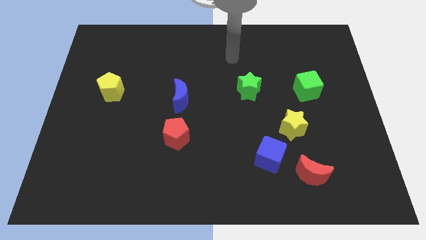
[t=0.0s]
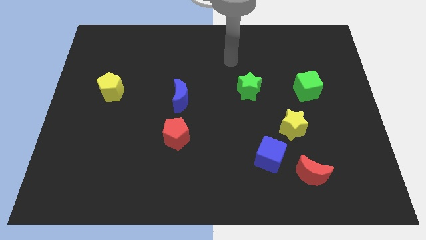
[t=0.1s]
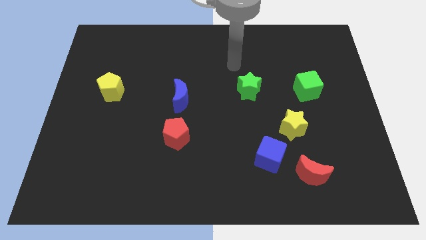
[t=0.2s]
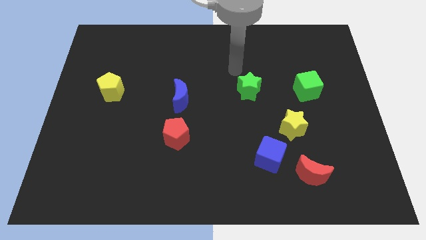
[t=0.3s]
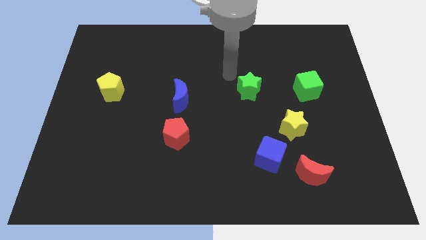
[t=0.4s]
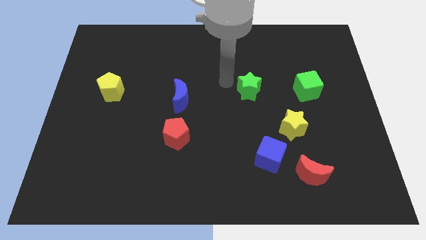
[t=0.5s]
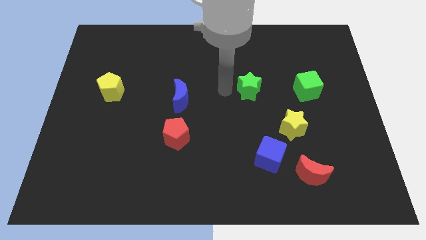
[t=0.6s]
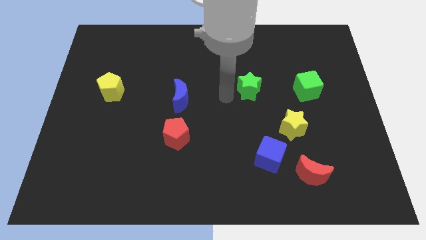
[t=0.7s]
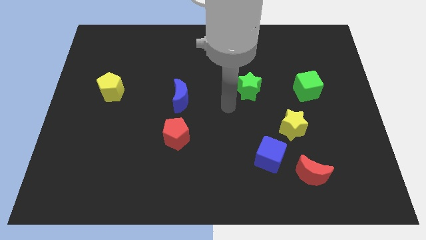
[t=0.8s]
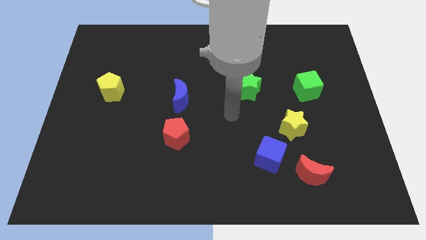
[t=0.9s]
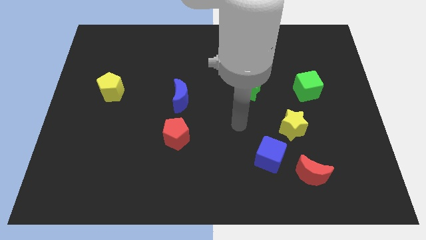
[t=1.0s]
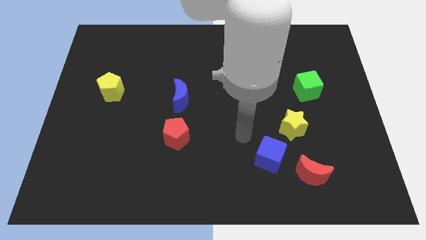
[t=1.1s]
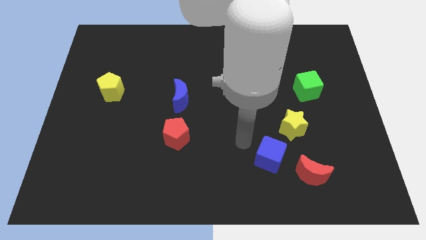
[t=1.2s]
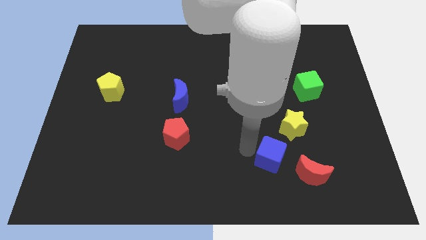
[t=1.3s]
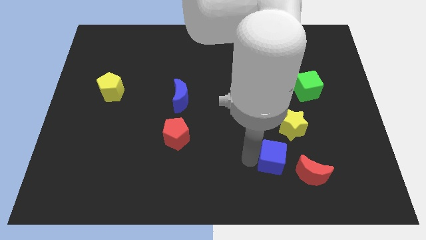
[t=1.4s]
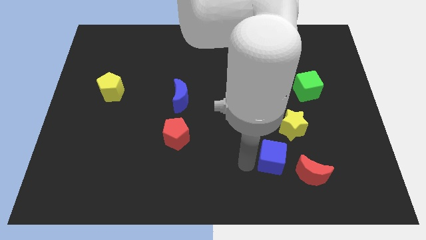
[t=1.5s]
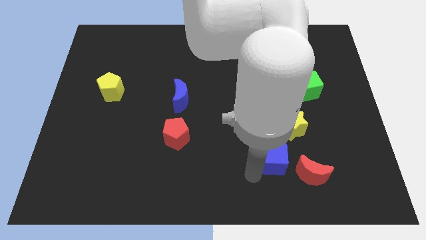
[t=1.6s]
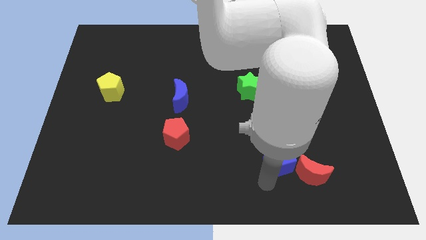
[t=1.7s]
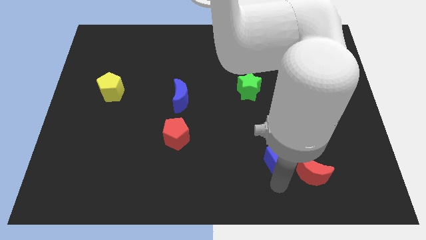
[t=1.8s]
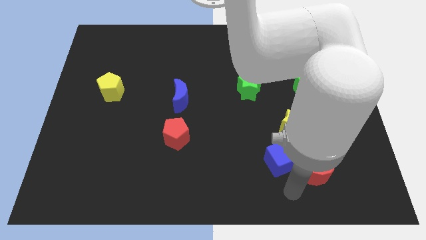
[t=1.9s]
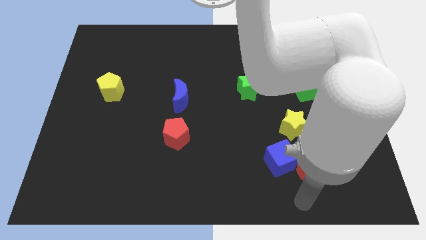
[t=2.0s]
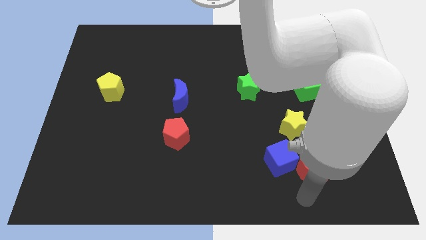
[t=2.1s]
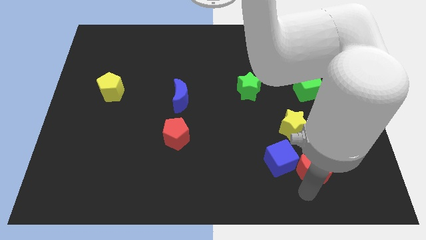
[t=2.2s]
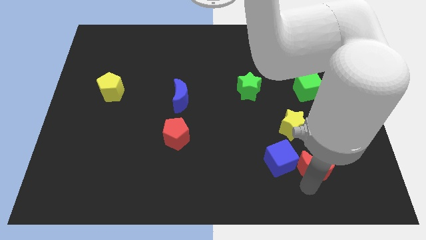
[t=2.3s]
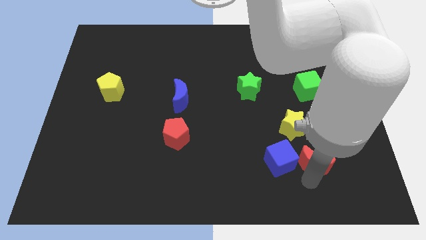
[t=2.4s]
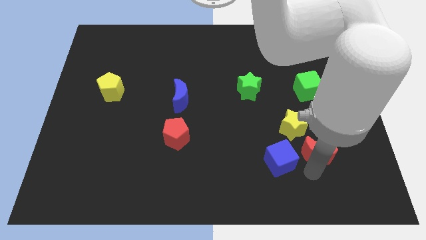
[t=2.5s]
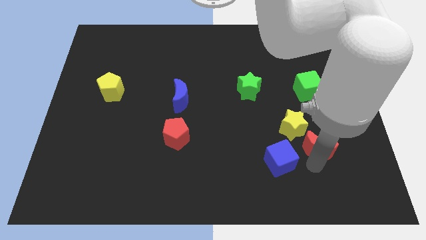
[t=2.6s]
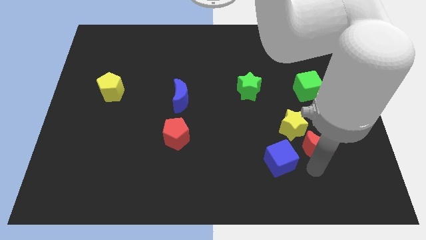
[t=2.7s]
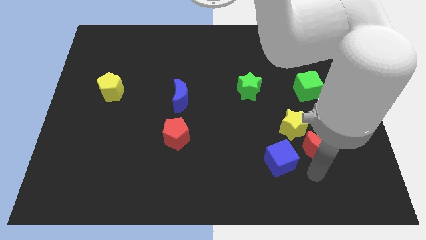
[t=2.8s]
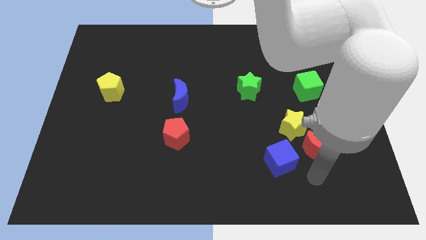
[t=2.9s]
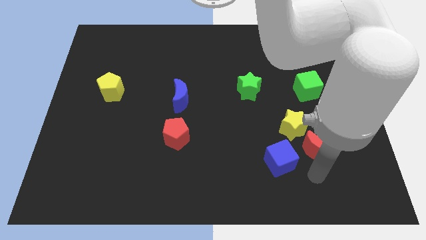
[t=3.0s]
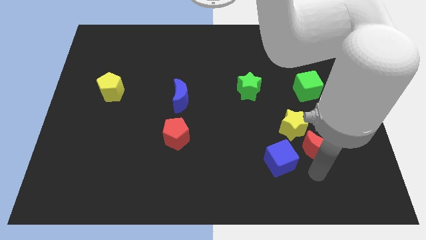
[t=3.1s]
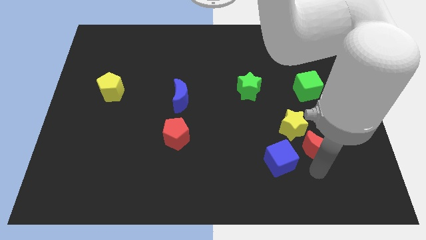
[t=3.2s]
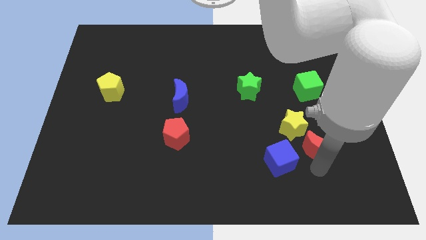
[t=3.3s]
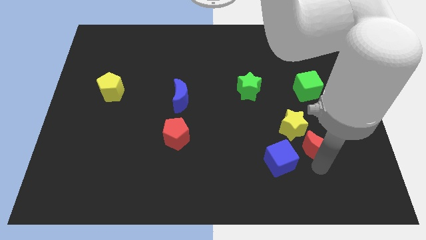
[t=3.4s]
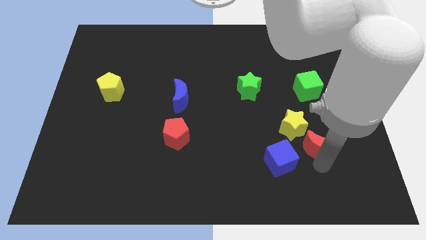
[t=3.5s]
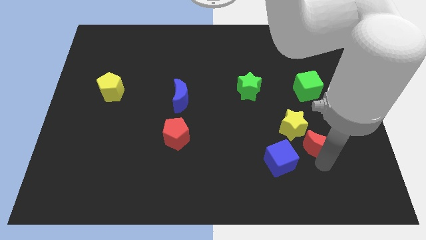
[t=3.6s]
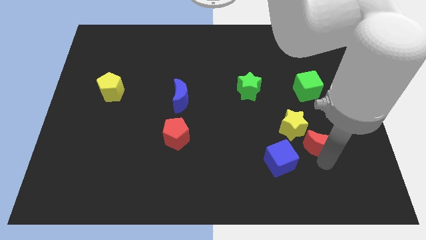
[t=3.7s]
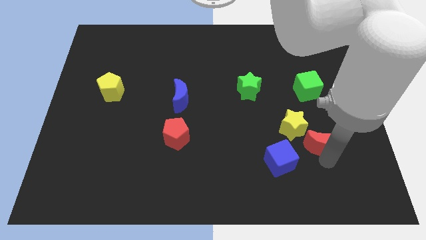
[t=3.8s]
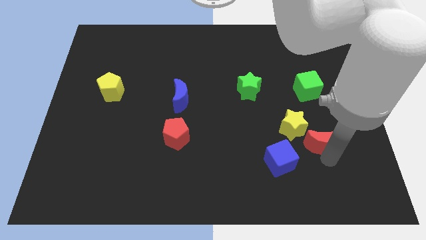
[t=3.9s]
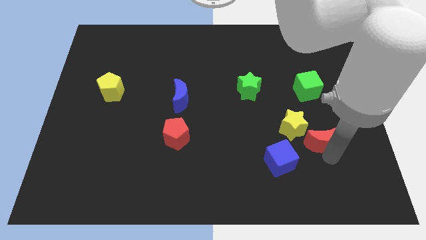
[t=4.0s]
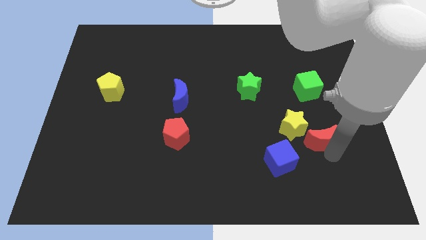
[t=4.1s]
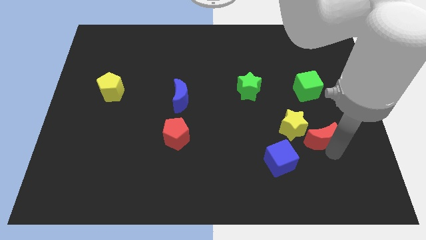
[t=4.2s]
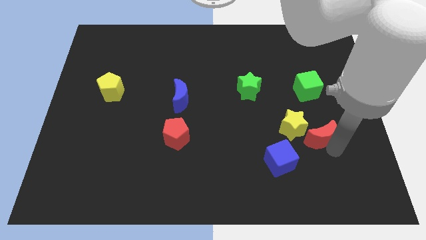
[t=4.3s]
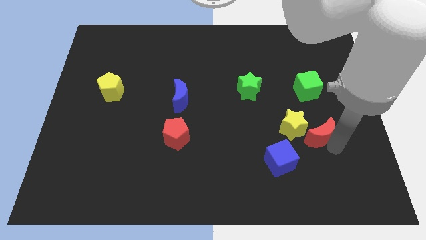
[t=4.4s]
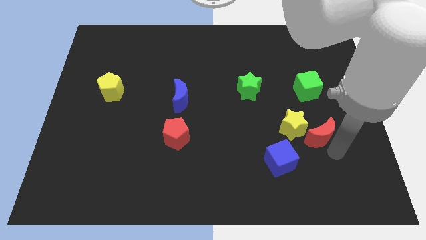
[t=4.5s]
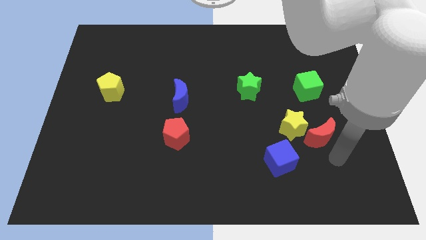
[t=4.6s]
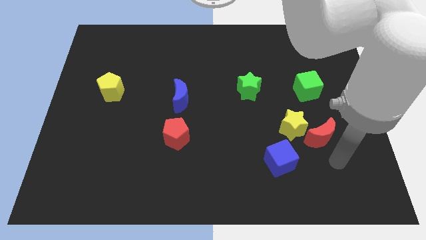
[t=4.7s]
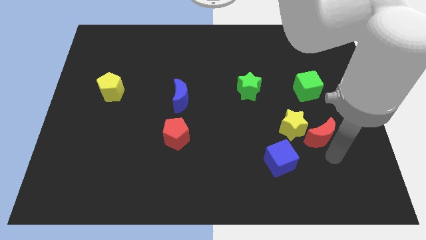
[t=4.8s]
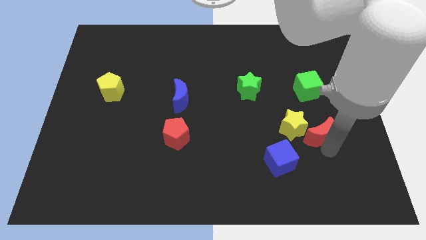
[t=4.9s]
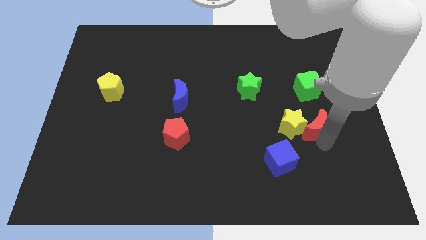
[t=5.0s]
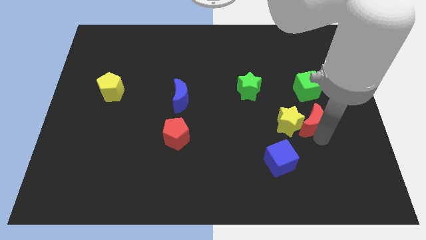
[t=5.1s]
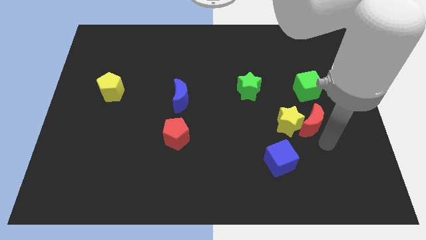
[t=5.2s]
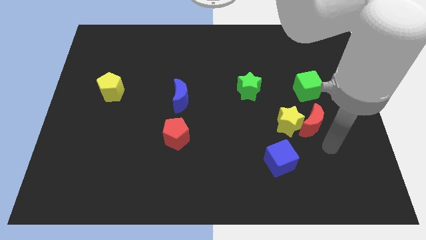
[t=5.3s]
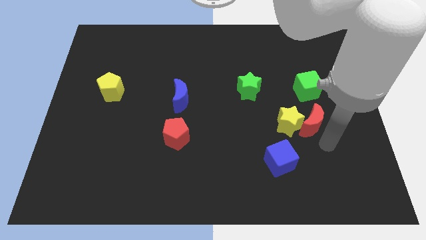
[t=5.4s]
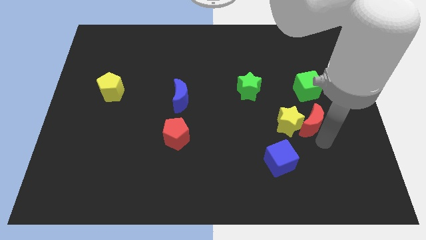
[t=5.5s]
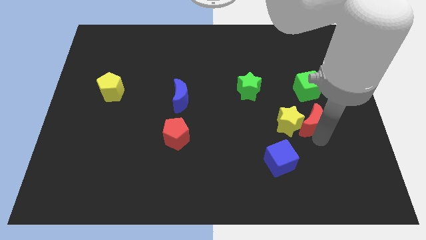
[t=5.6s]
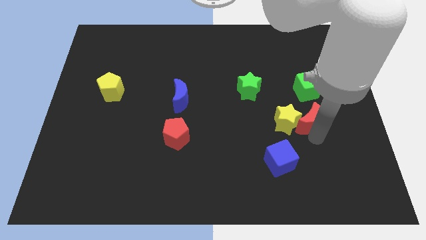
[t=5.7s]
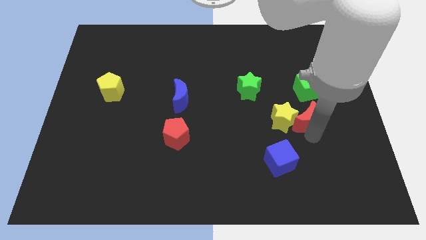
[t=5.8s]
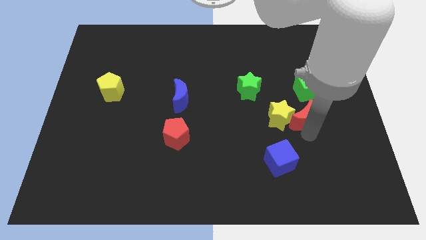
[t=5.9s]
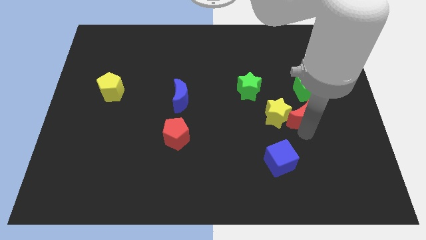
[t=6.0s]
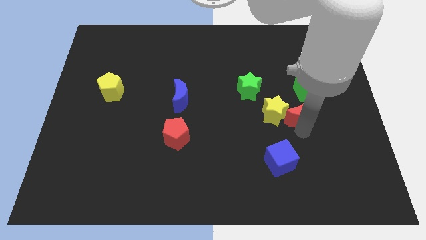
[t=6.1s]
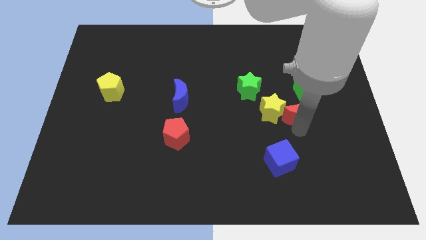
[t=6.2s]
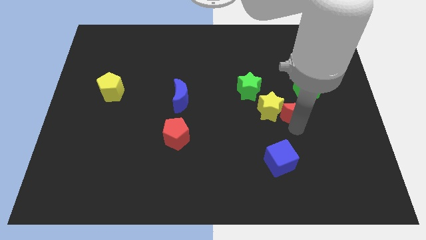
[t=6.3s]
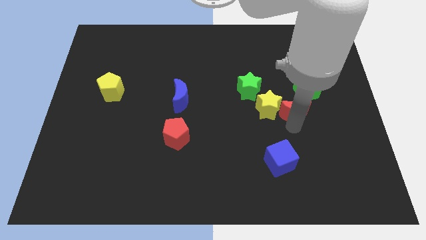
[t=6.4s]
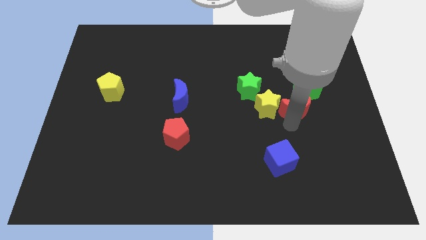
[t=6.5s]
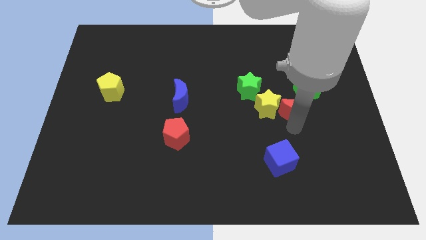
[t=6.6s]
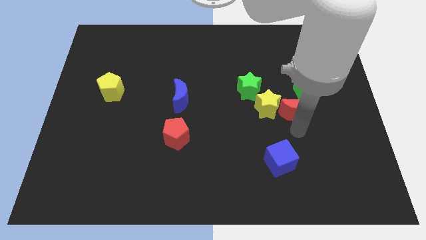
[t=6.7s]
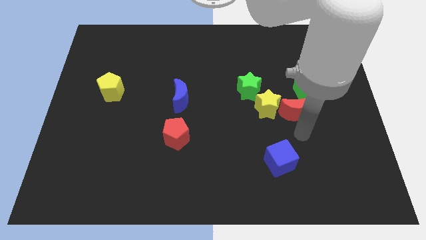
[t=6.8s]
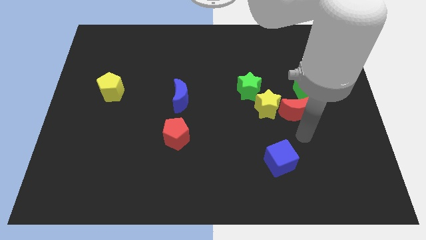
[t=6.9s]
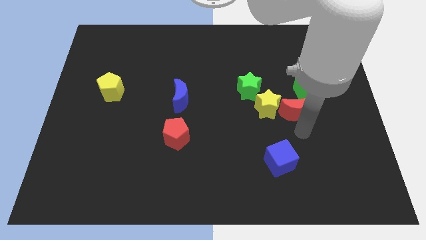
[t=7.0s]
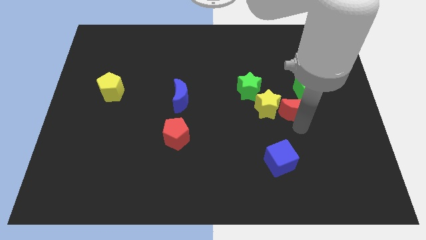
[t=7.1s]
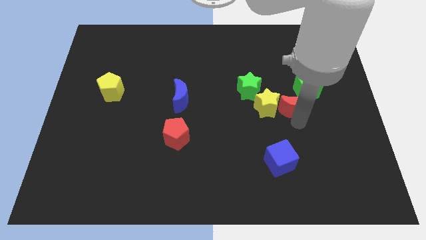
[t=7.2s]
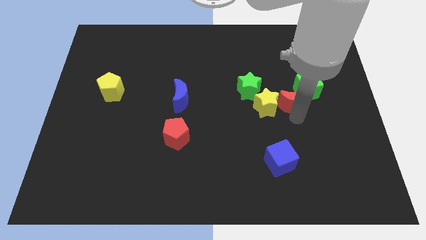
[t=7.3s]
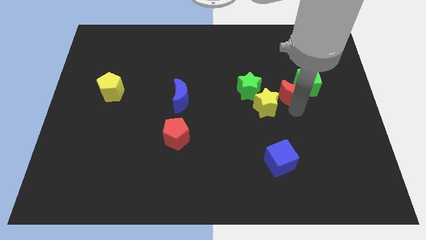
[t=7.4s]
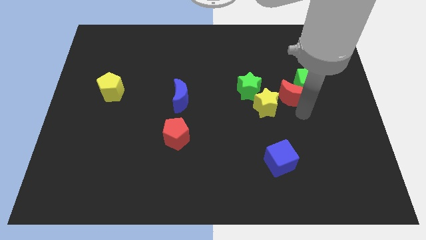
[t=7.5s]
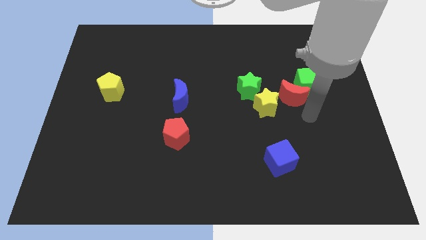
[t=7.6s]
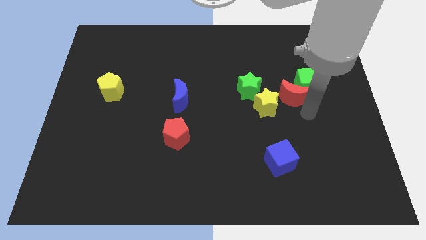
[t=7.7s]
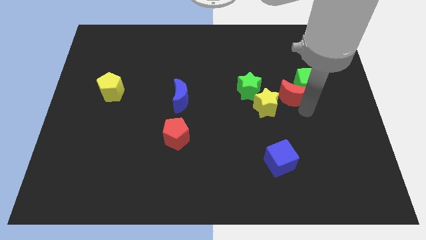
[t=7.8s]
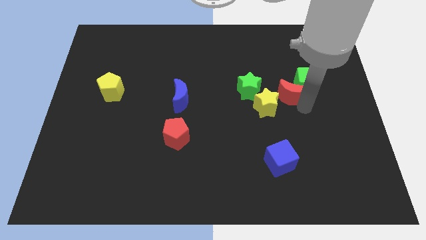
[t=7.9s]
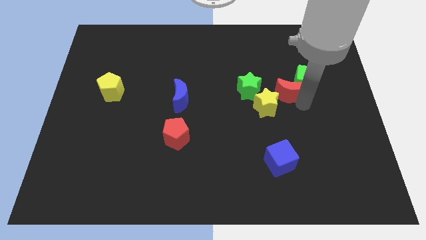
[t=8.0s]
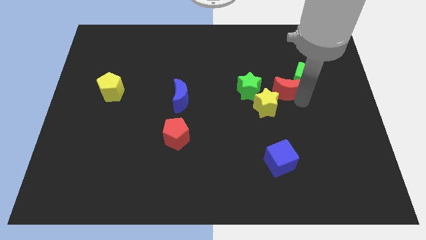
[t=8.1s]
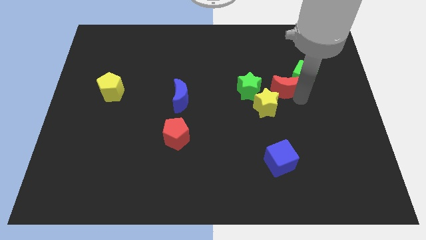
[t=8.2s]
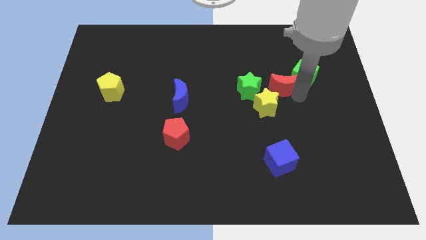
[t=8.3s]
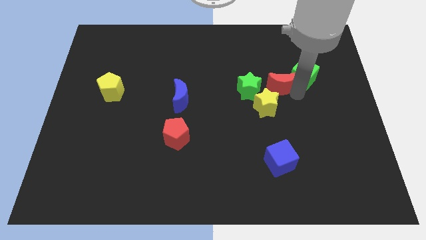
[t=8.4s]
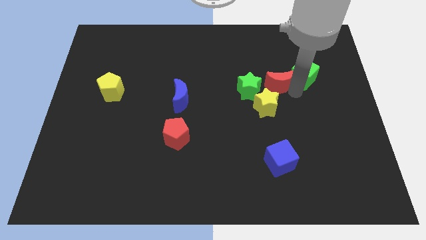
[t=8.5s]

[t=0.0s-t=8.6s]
put the red moon diagonally up and to the right of the green star
